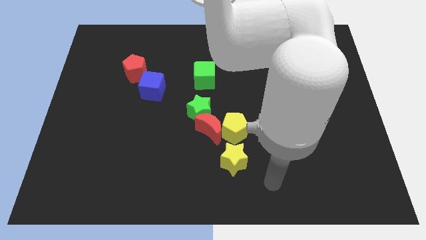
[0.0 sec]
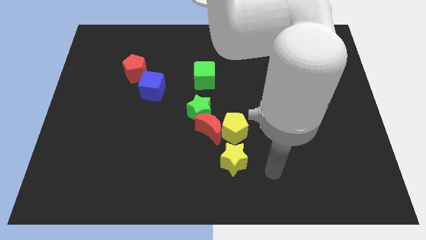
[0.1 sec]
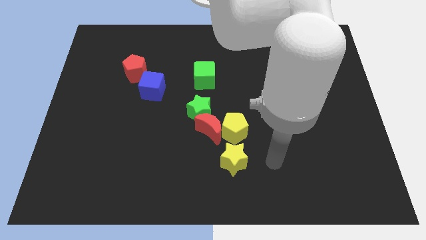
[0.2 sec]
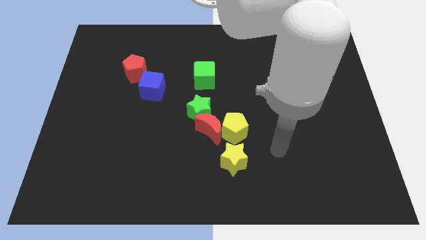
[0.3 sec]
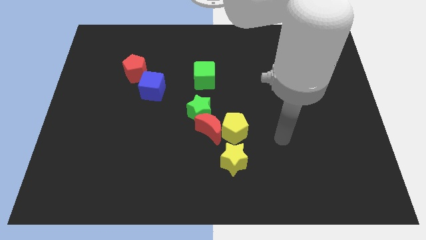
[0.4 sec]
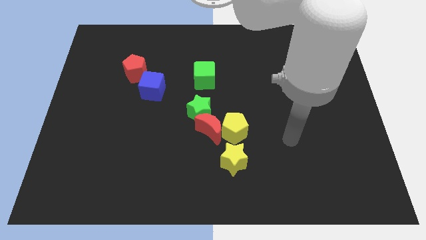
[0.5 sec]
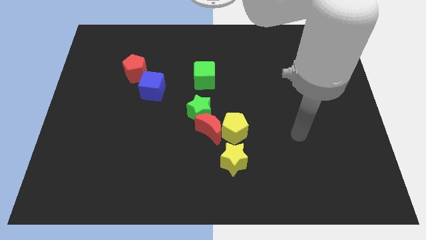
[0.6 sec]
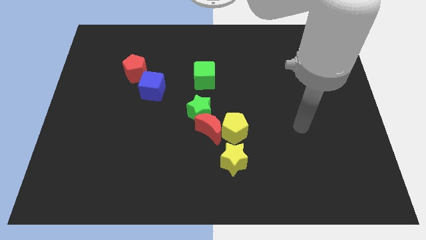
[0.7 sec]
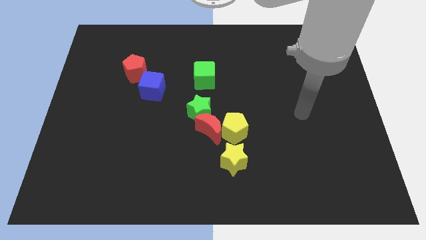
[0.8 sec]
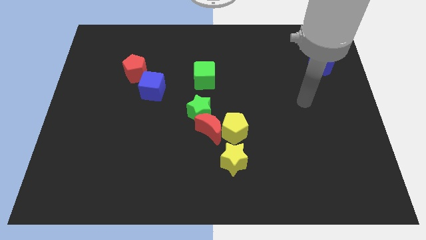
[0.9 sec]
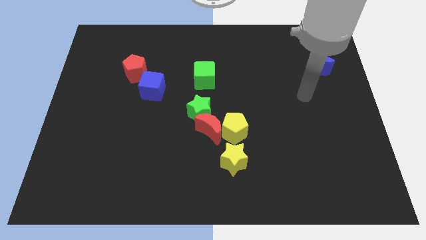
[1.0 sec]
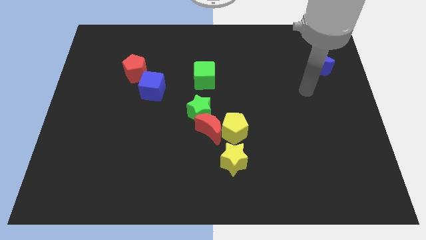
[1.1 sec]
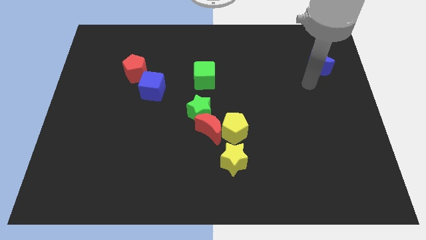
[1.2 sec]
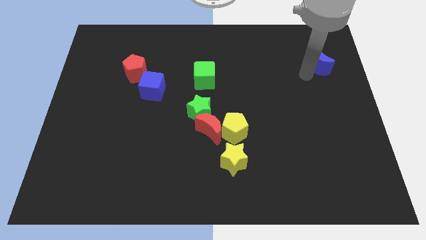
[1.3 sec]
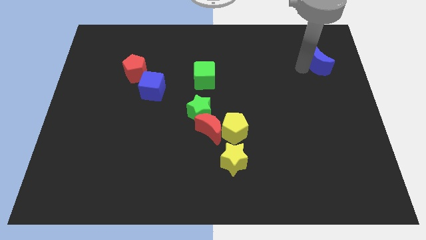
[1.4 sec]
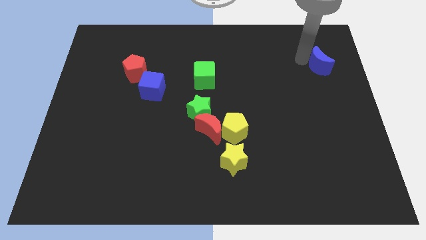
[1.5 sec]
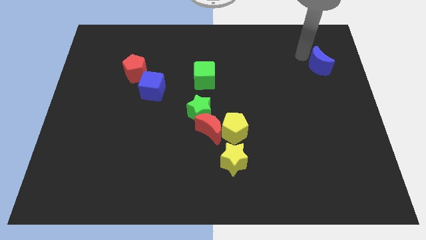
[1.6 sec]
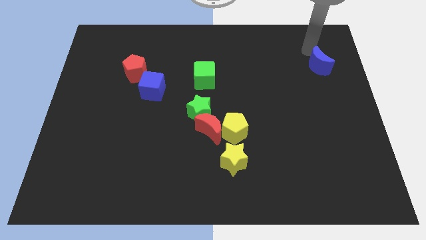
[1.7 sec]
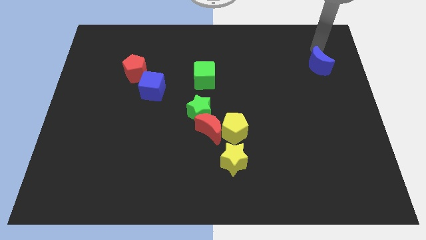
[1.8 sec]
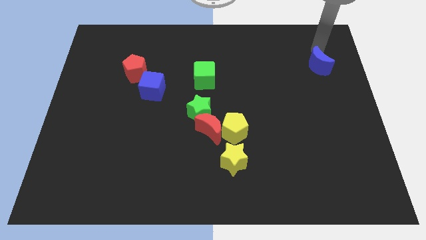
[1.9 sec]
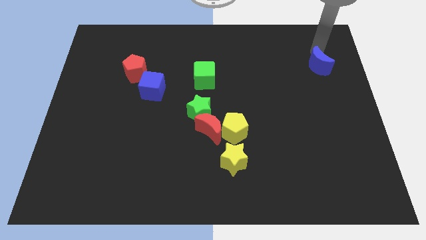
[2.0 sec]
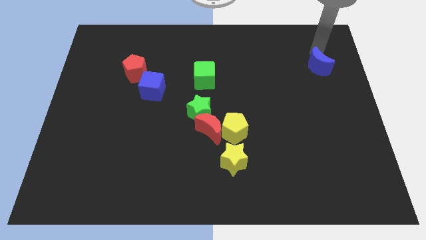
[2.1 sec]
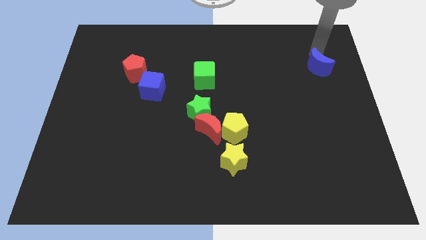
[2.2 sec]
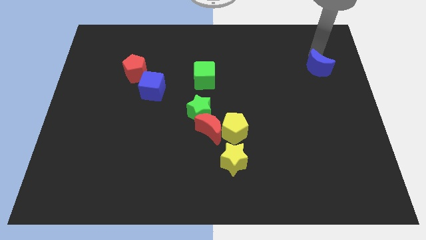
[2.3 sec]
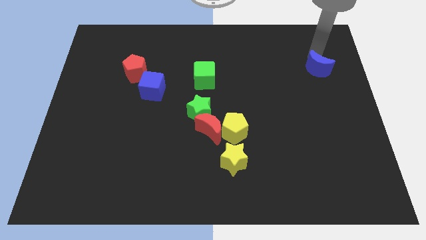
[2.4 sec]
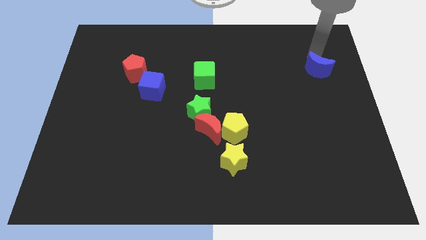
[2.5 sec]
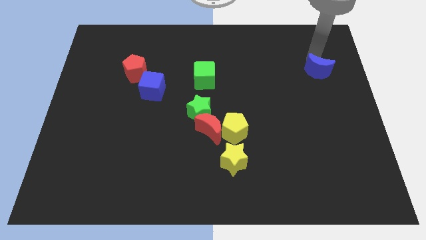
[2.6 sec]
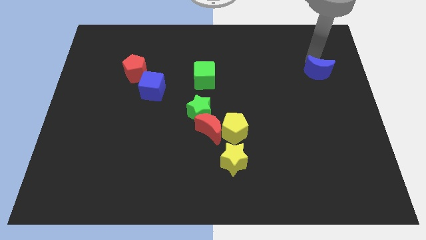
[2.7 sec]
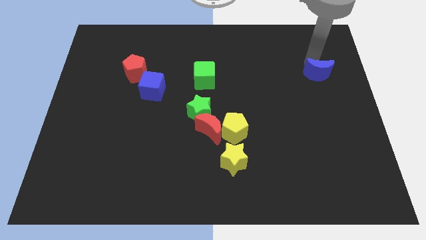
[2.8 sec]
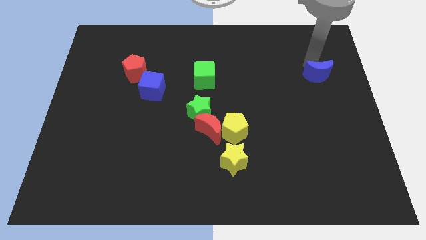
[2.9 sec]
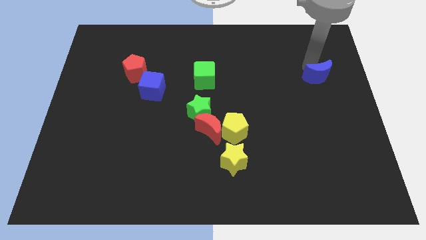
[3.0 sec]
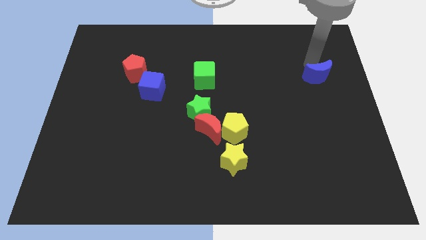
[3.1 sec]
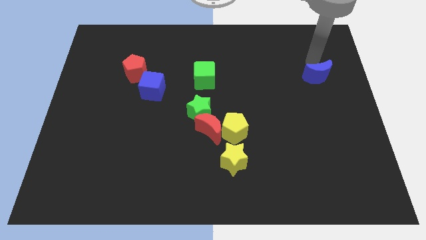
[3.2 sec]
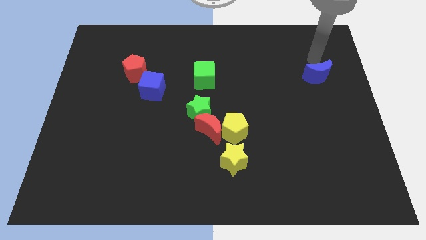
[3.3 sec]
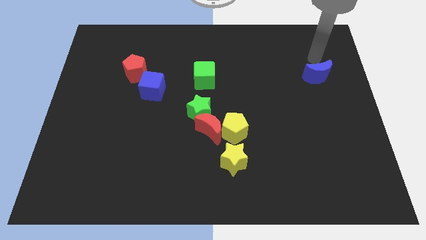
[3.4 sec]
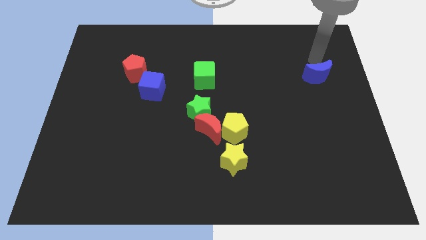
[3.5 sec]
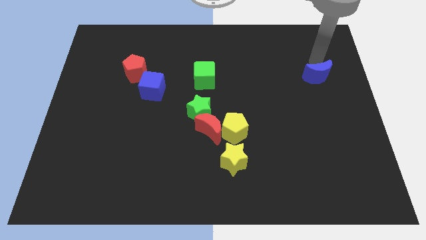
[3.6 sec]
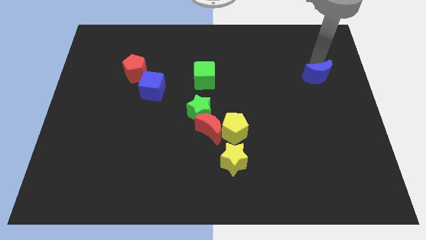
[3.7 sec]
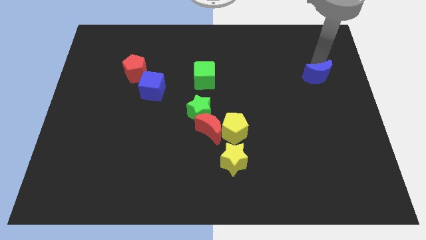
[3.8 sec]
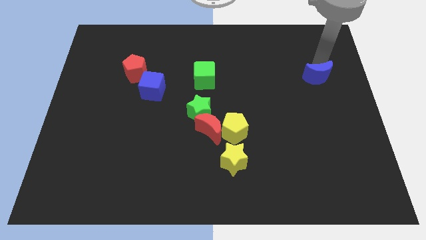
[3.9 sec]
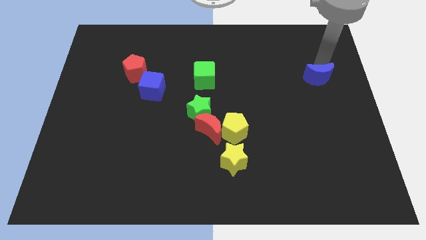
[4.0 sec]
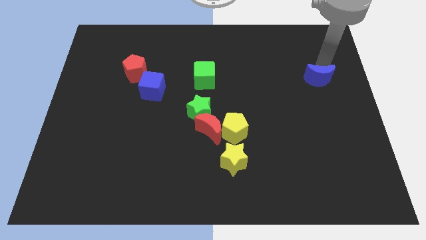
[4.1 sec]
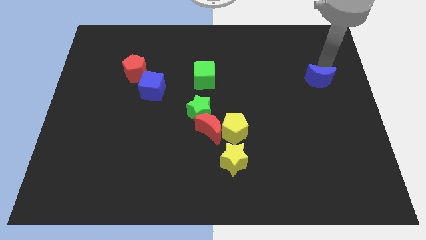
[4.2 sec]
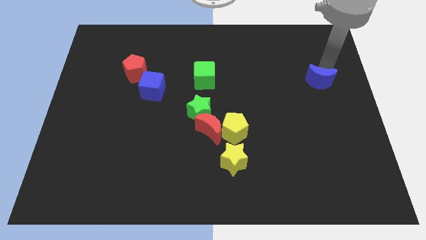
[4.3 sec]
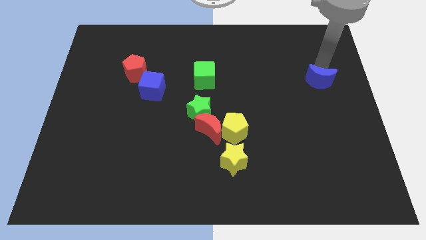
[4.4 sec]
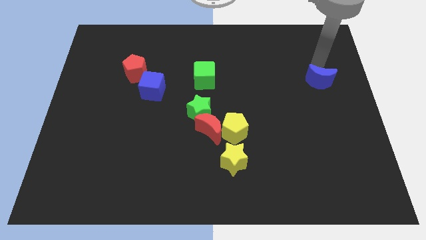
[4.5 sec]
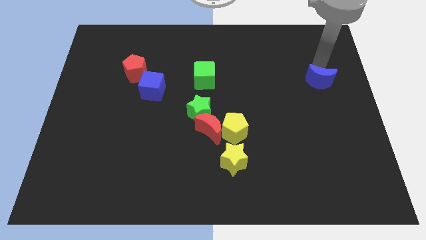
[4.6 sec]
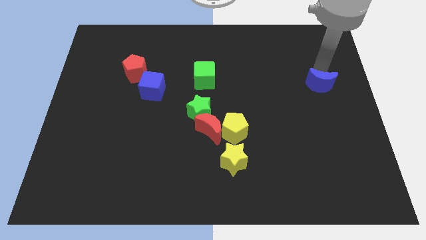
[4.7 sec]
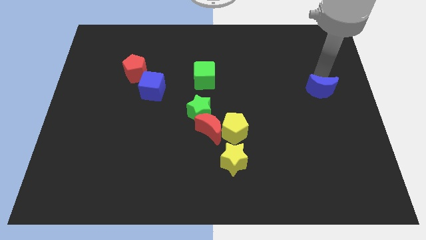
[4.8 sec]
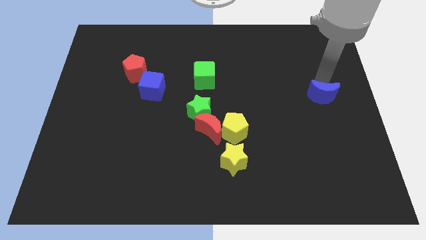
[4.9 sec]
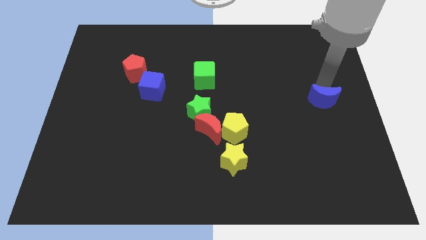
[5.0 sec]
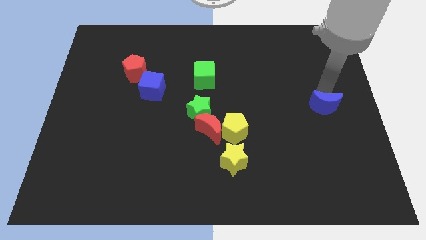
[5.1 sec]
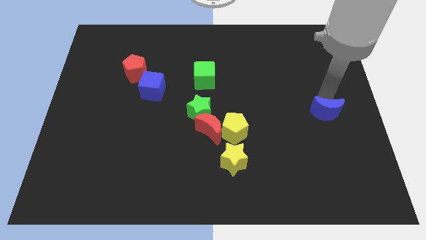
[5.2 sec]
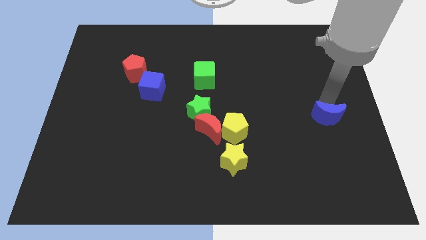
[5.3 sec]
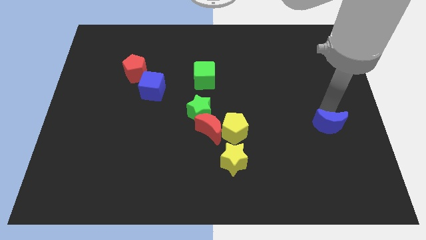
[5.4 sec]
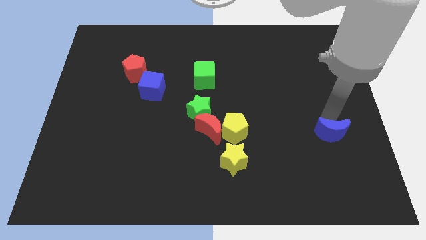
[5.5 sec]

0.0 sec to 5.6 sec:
move the blue moon downwards

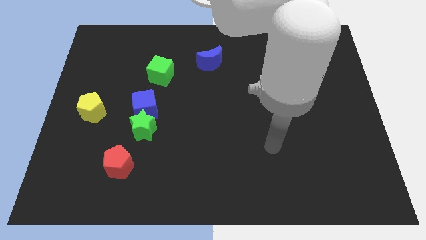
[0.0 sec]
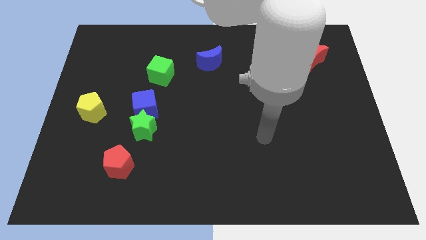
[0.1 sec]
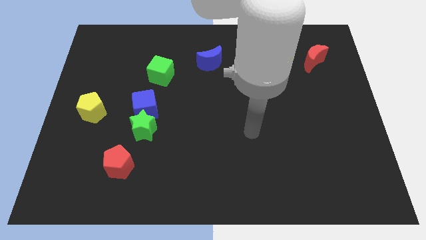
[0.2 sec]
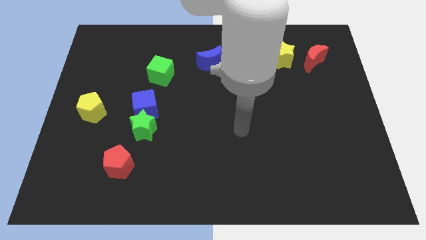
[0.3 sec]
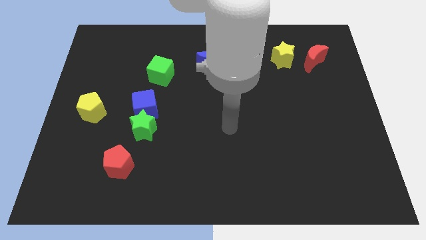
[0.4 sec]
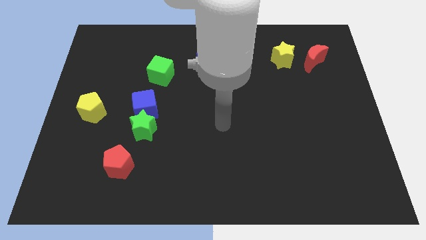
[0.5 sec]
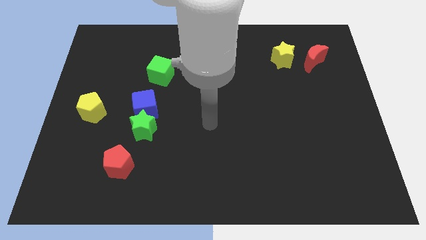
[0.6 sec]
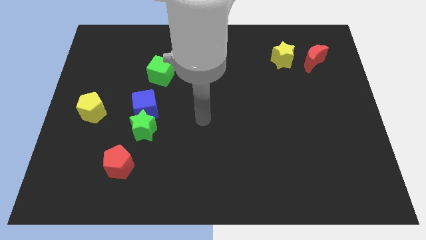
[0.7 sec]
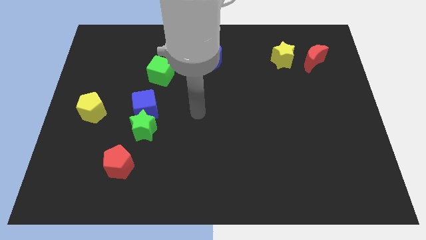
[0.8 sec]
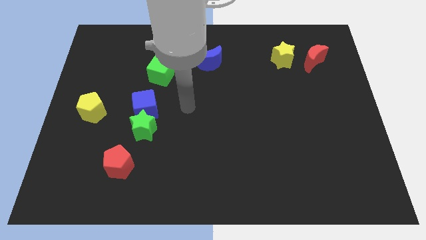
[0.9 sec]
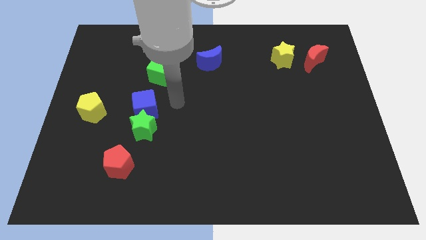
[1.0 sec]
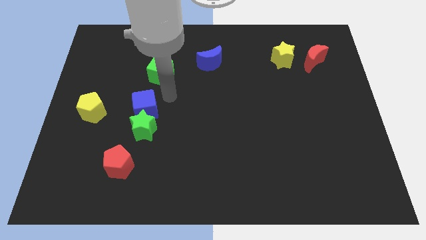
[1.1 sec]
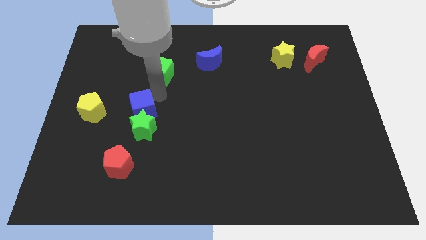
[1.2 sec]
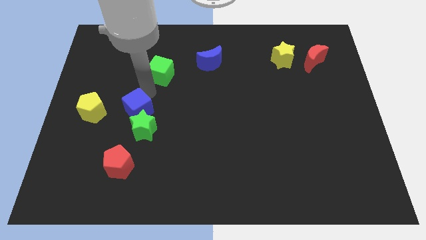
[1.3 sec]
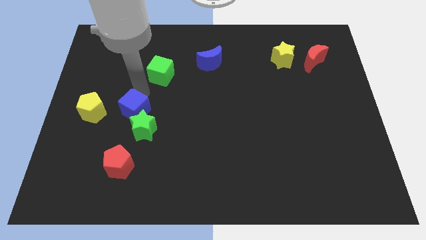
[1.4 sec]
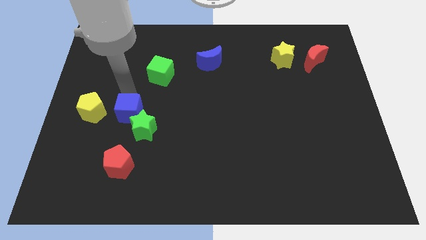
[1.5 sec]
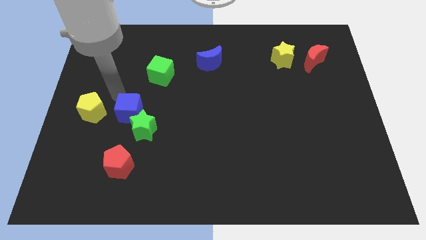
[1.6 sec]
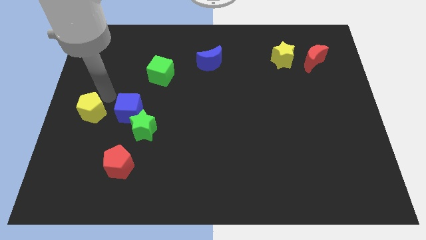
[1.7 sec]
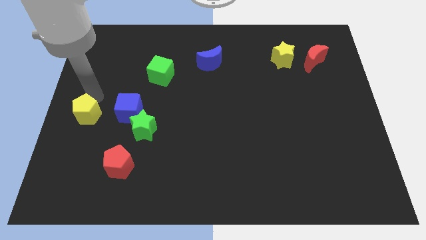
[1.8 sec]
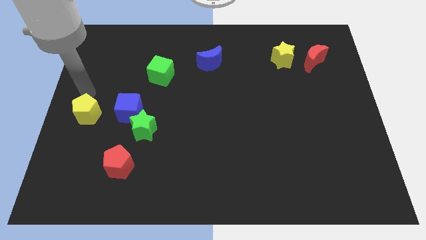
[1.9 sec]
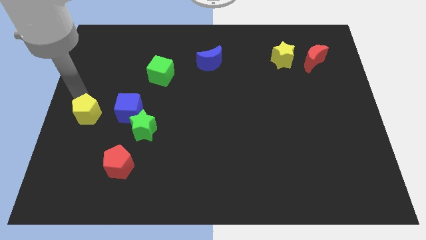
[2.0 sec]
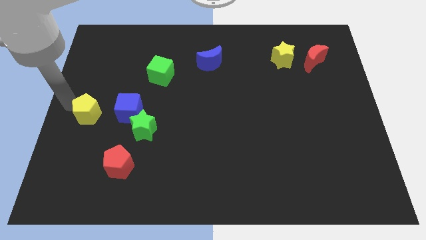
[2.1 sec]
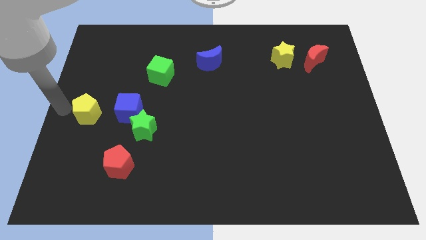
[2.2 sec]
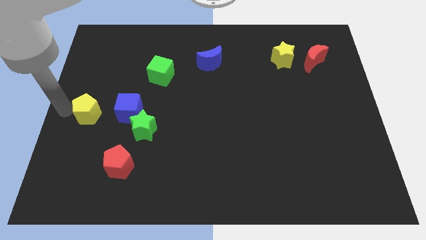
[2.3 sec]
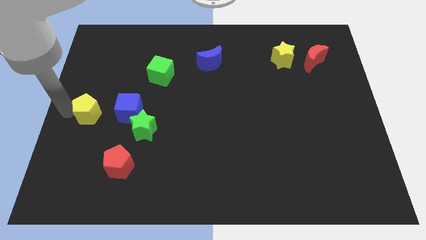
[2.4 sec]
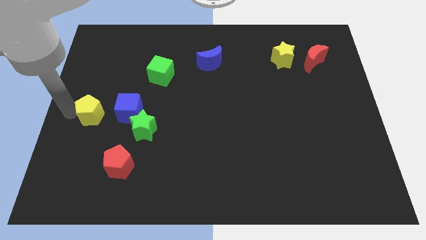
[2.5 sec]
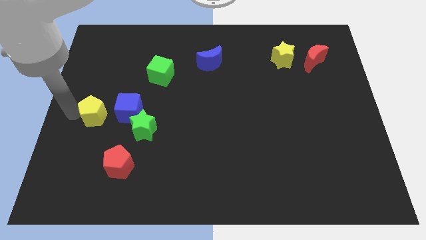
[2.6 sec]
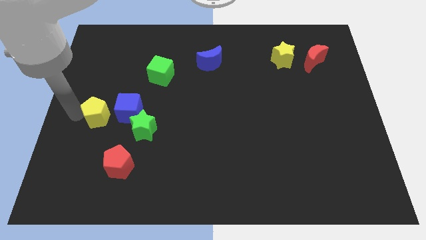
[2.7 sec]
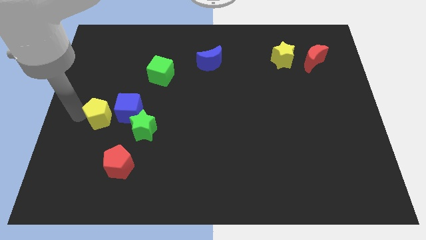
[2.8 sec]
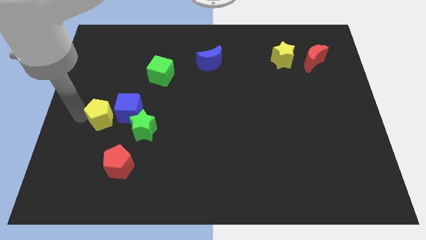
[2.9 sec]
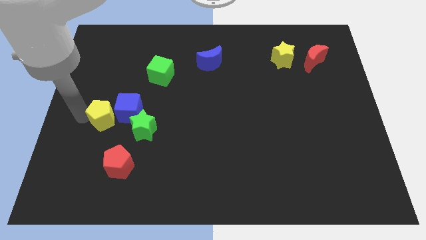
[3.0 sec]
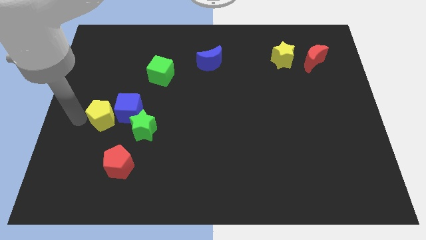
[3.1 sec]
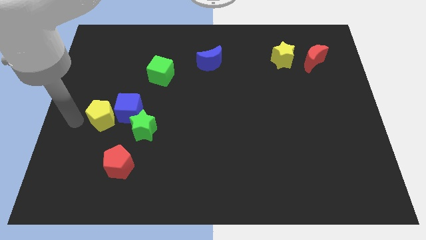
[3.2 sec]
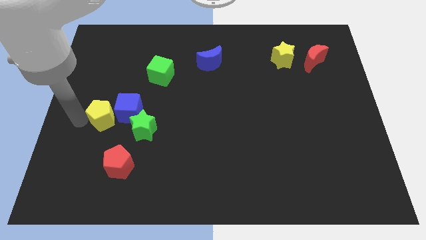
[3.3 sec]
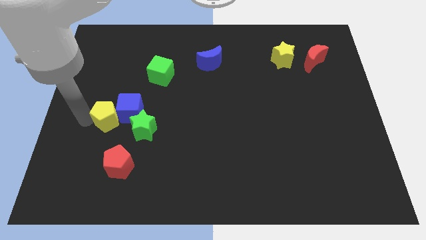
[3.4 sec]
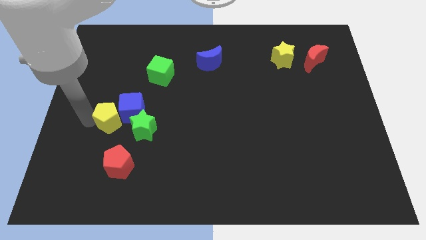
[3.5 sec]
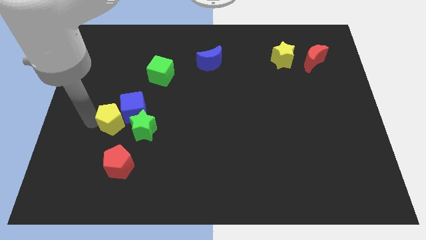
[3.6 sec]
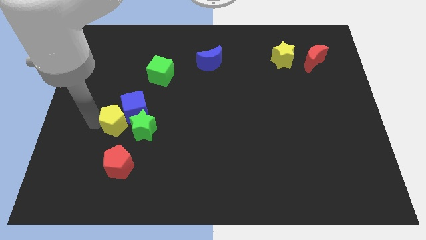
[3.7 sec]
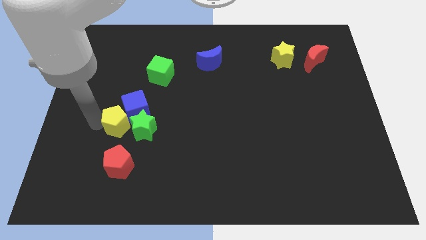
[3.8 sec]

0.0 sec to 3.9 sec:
push the yellow pentagon a bit downwards and right
